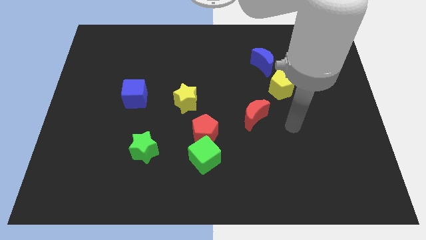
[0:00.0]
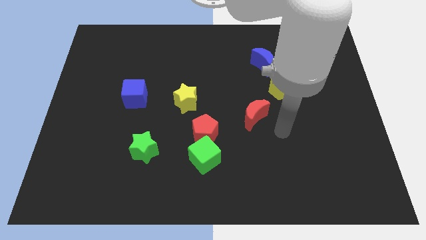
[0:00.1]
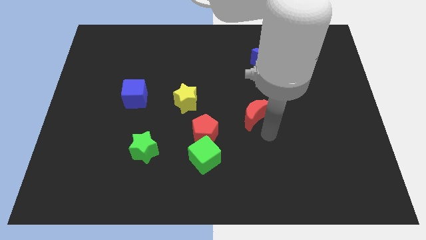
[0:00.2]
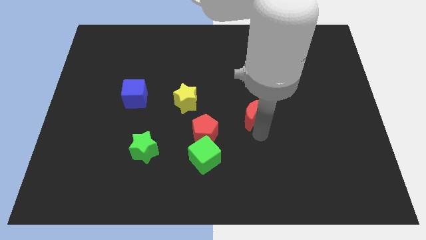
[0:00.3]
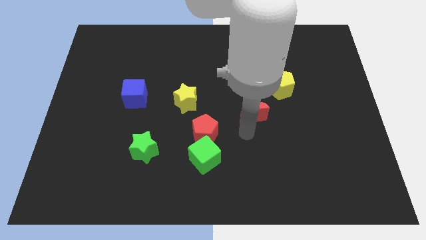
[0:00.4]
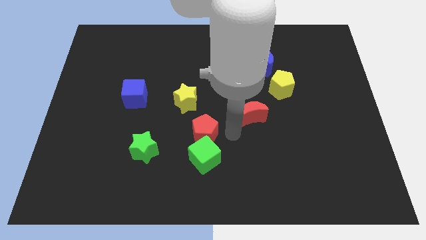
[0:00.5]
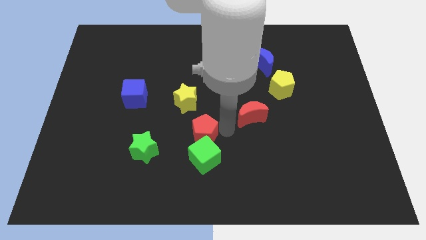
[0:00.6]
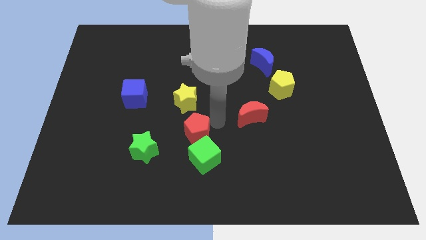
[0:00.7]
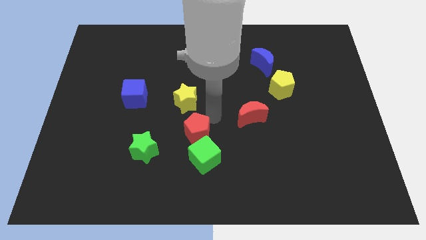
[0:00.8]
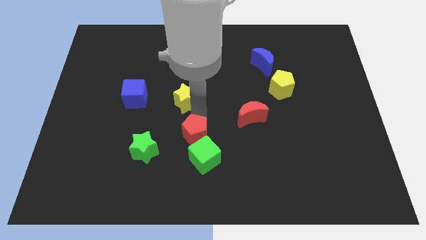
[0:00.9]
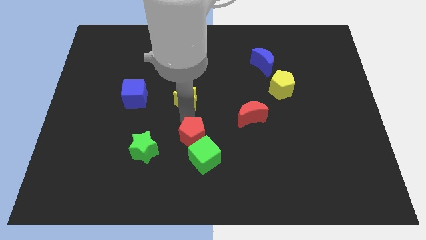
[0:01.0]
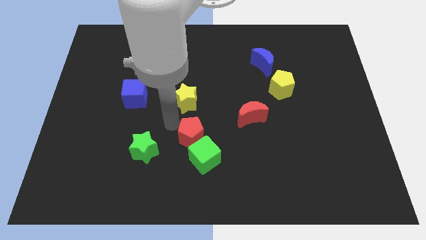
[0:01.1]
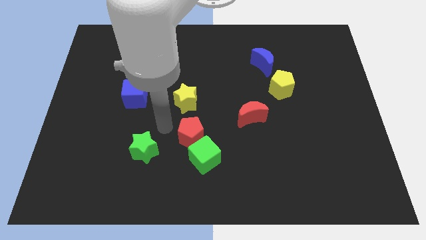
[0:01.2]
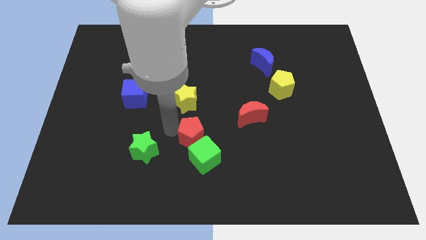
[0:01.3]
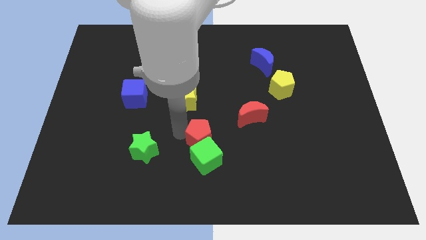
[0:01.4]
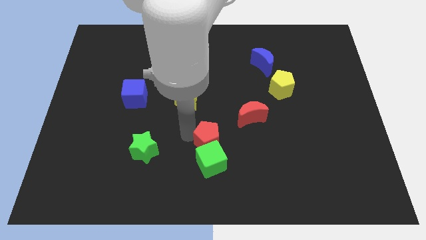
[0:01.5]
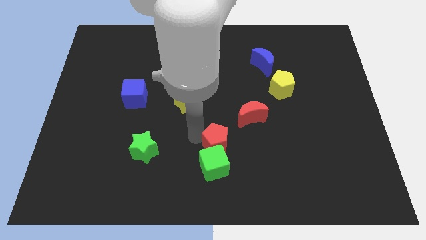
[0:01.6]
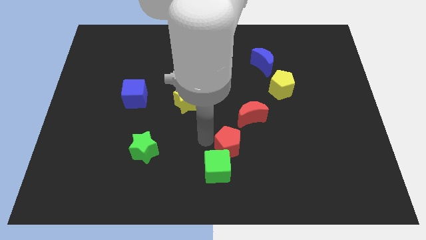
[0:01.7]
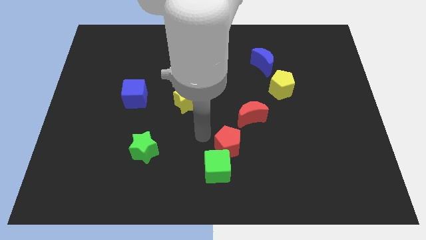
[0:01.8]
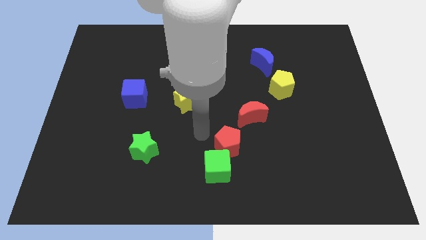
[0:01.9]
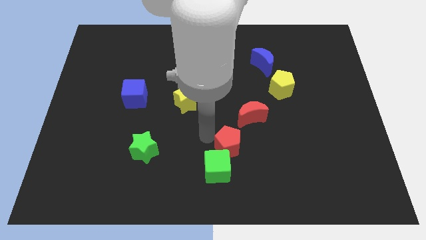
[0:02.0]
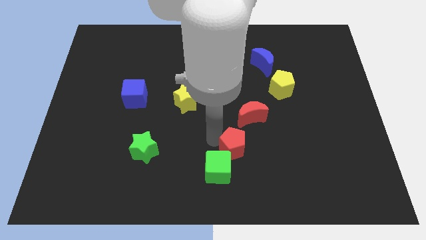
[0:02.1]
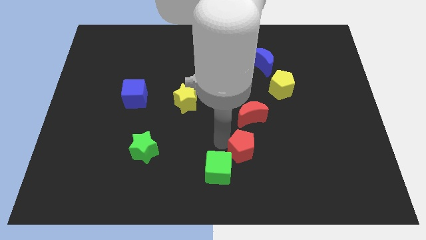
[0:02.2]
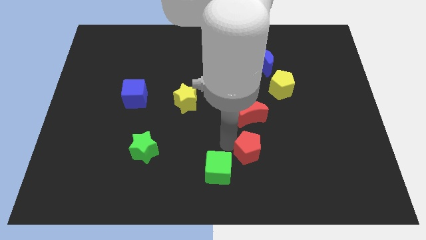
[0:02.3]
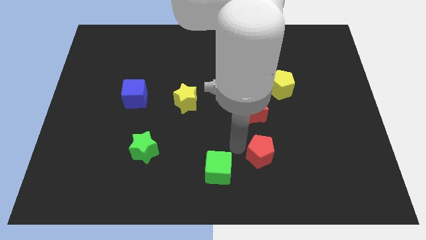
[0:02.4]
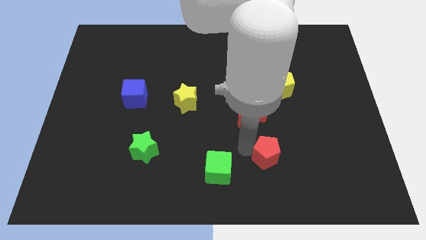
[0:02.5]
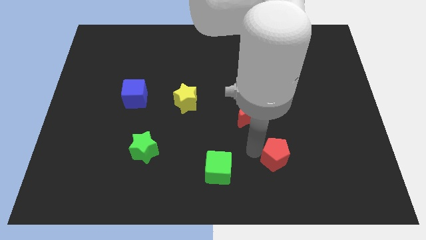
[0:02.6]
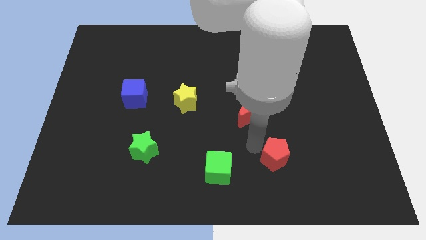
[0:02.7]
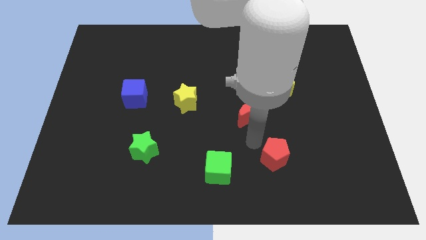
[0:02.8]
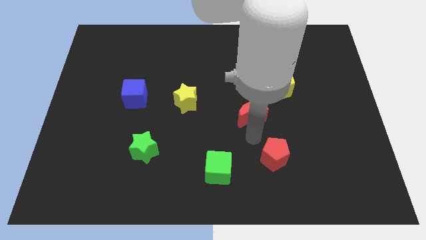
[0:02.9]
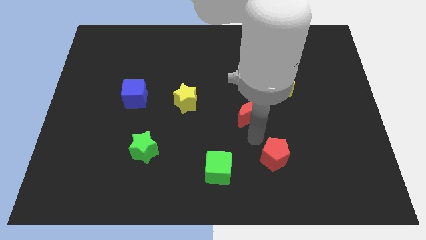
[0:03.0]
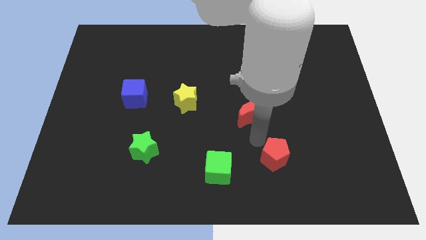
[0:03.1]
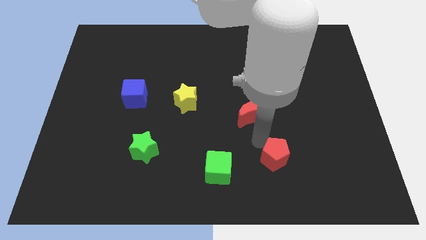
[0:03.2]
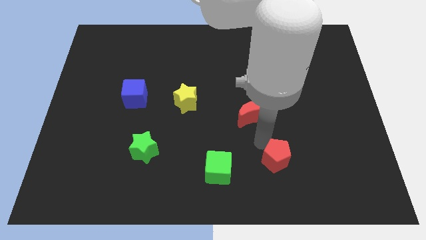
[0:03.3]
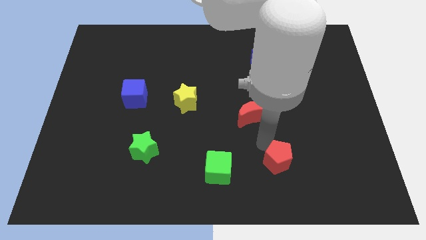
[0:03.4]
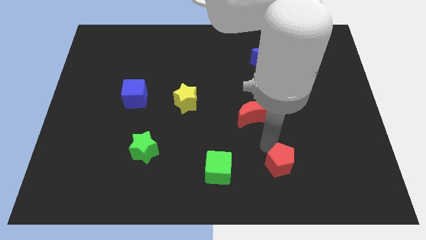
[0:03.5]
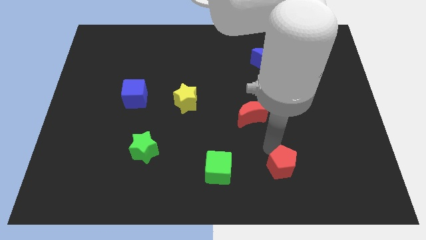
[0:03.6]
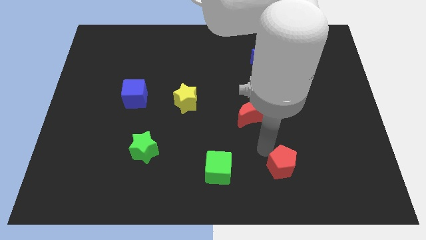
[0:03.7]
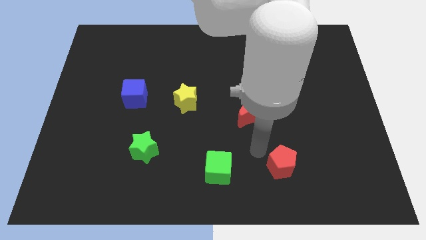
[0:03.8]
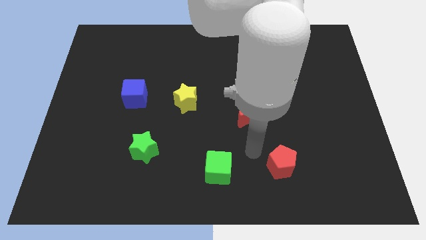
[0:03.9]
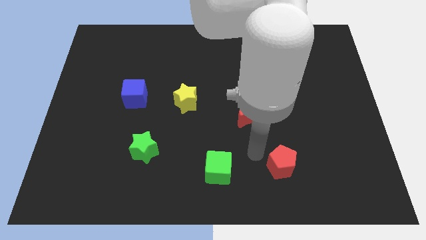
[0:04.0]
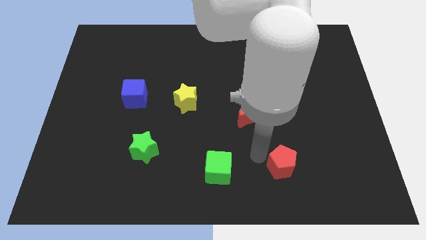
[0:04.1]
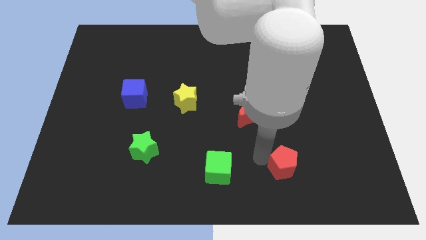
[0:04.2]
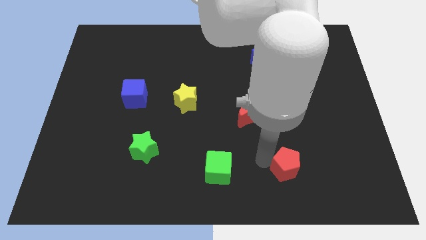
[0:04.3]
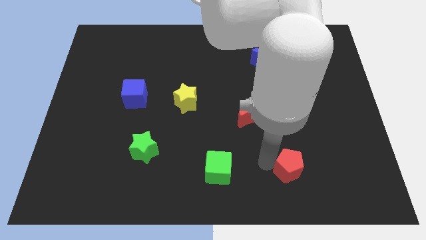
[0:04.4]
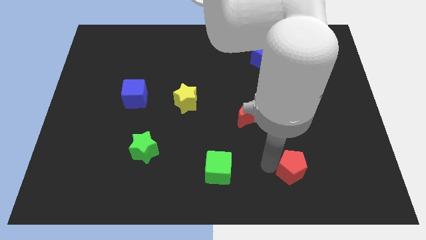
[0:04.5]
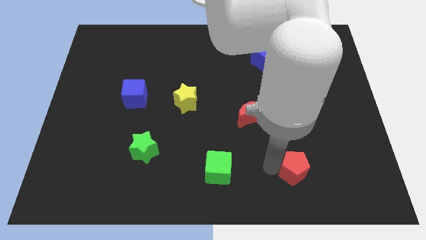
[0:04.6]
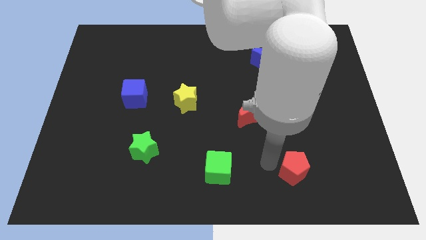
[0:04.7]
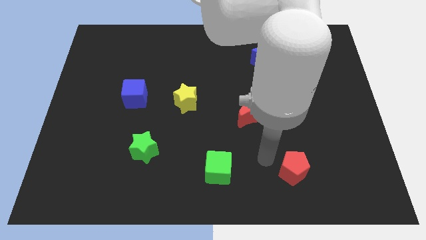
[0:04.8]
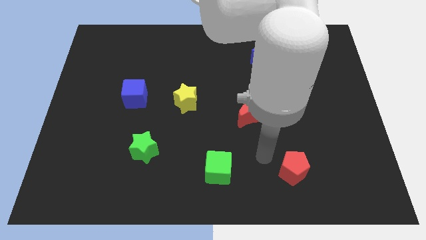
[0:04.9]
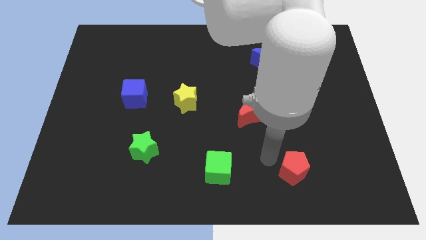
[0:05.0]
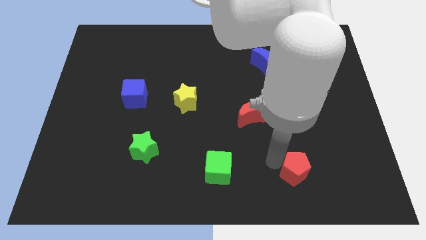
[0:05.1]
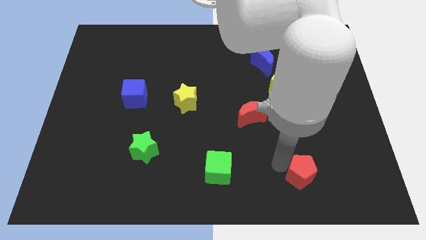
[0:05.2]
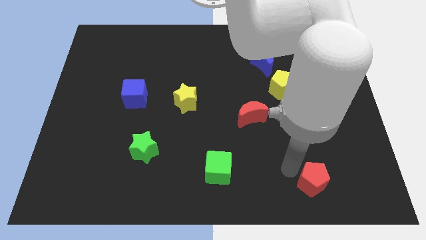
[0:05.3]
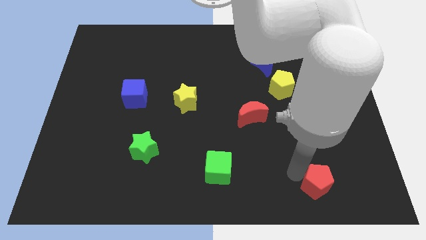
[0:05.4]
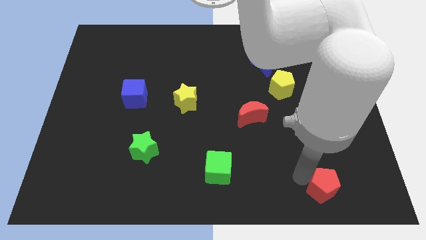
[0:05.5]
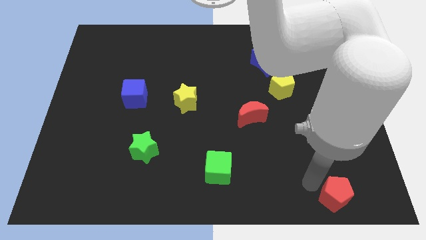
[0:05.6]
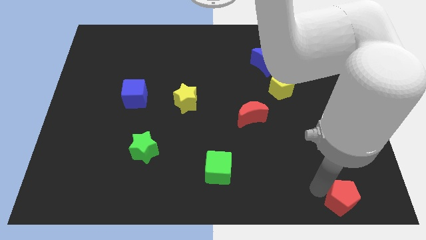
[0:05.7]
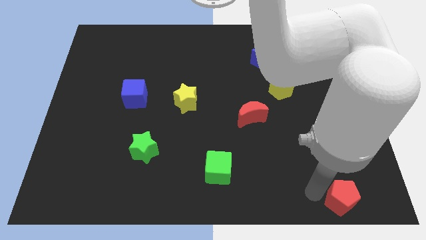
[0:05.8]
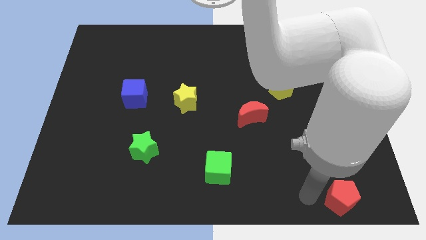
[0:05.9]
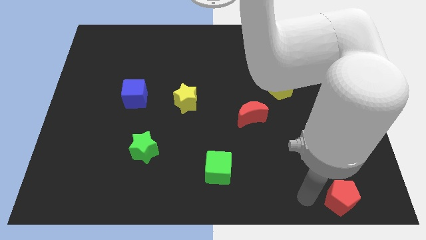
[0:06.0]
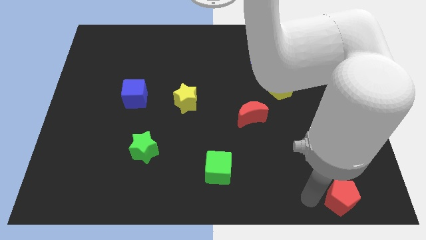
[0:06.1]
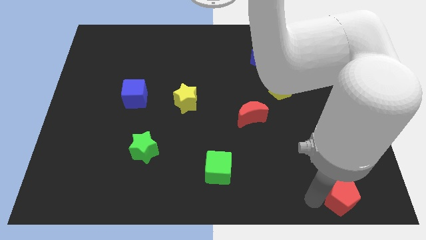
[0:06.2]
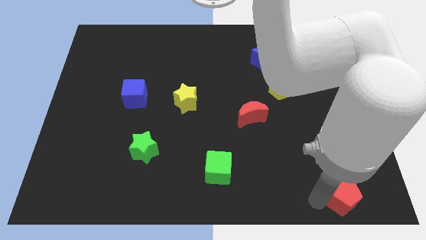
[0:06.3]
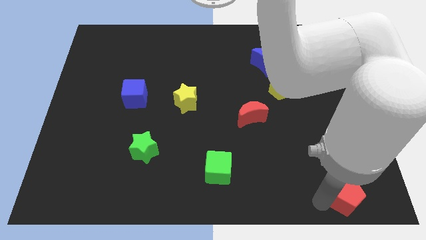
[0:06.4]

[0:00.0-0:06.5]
slide the red pentagon to the lower right corner
